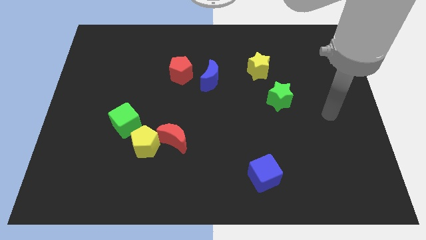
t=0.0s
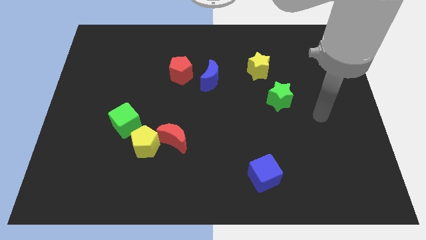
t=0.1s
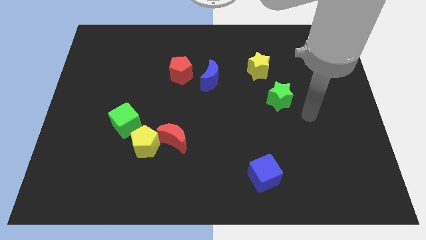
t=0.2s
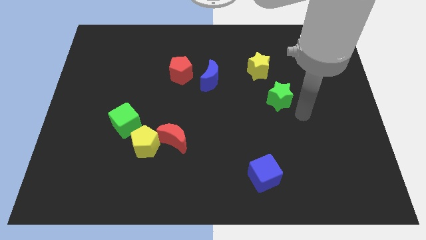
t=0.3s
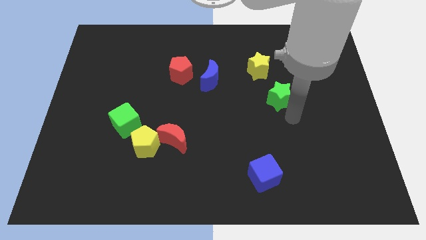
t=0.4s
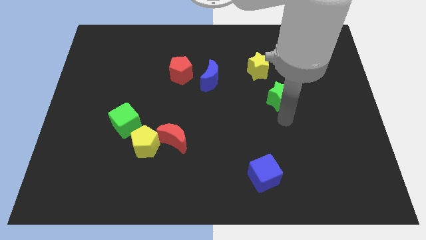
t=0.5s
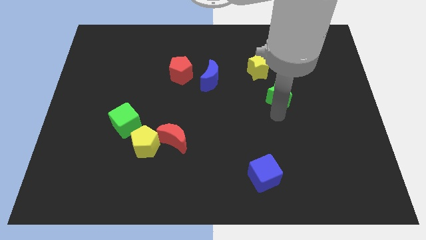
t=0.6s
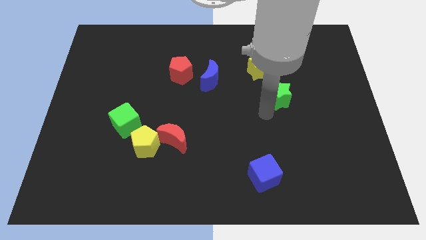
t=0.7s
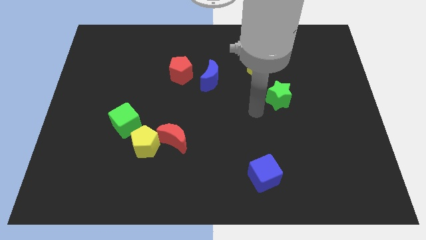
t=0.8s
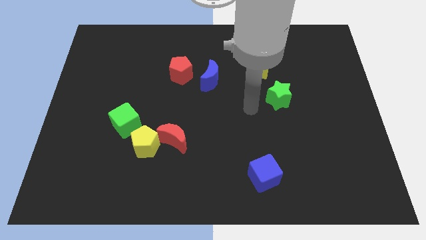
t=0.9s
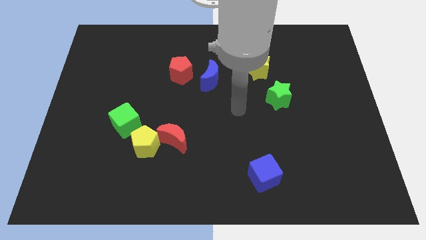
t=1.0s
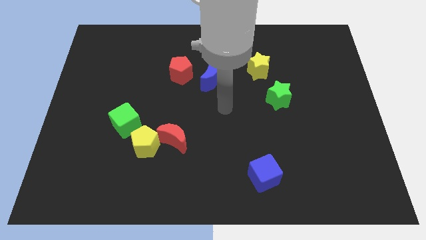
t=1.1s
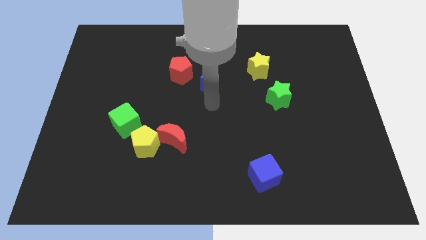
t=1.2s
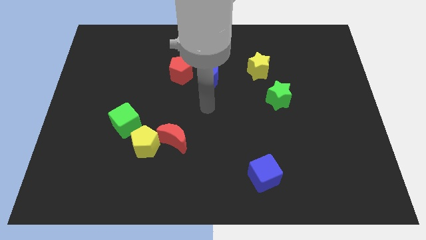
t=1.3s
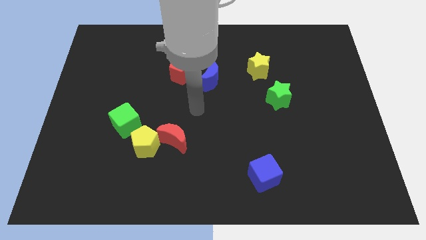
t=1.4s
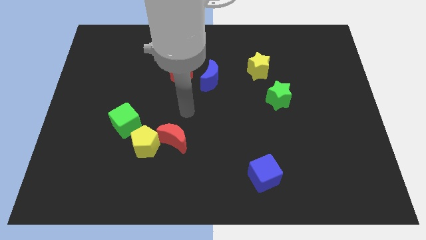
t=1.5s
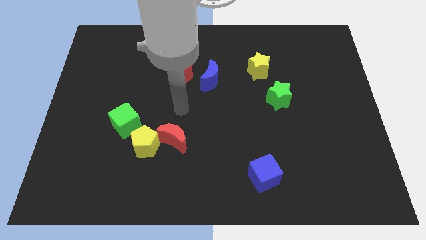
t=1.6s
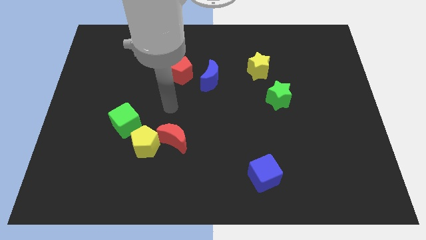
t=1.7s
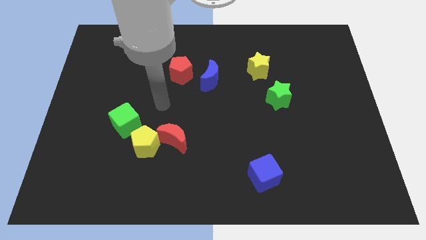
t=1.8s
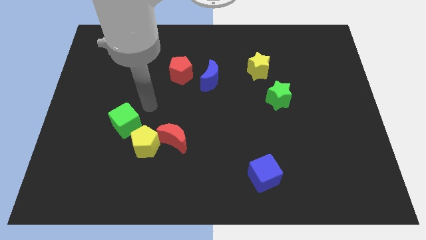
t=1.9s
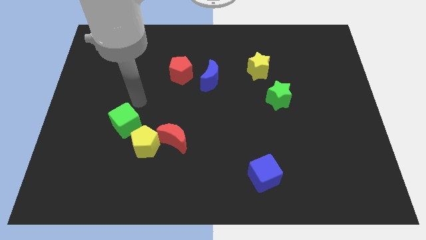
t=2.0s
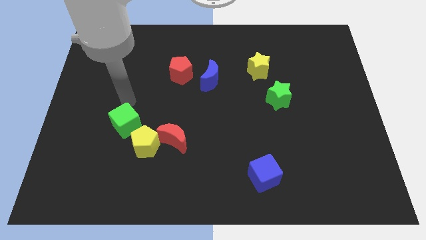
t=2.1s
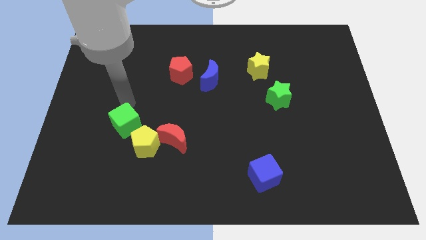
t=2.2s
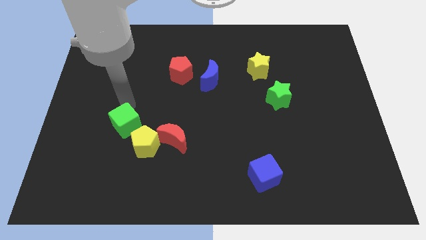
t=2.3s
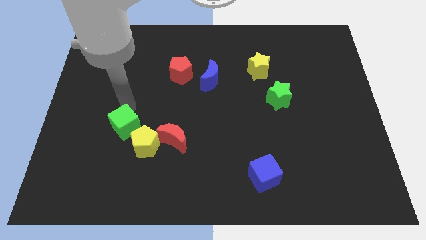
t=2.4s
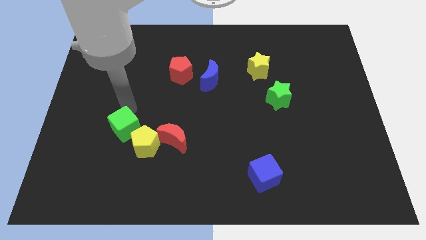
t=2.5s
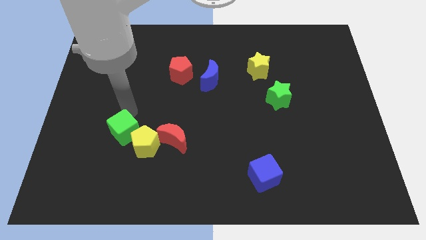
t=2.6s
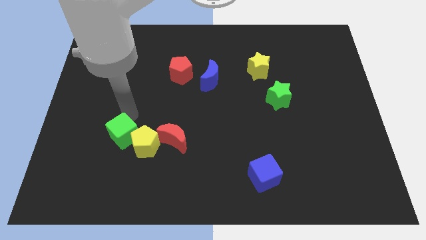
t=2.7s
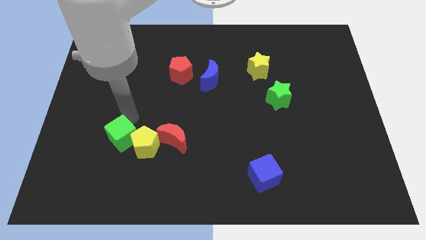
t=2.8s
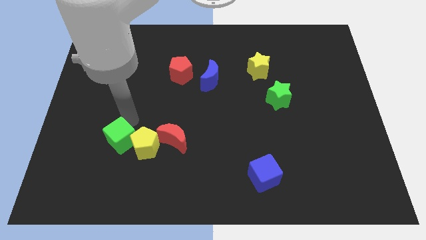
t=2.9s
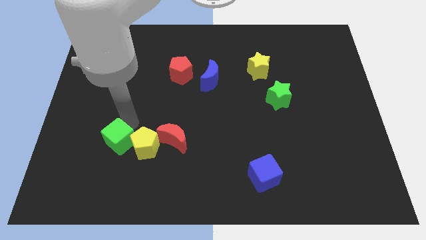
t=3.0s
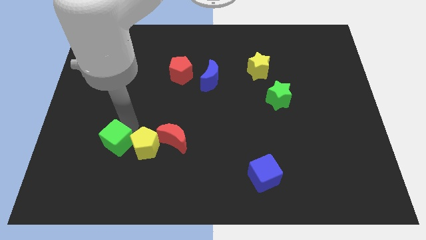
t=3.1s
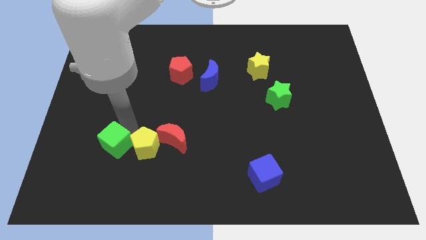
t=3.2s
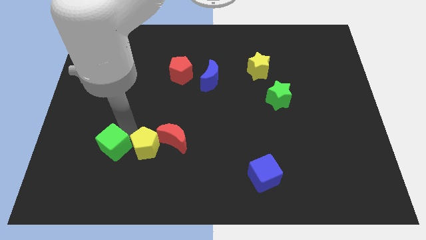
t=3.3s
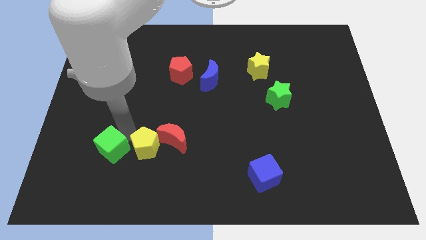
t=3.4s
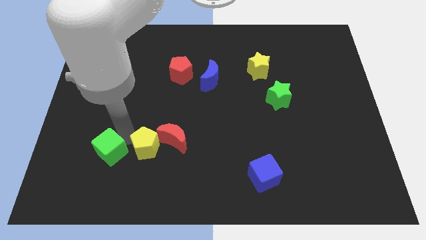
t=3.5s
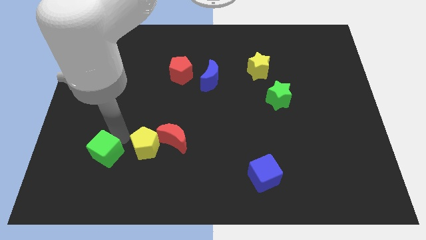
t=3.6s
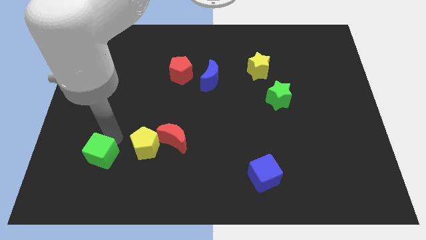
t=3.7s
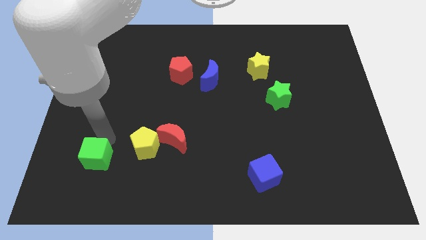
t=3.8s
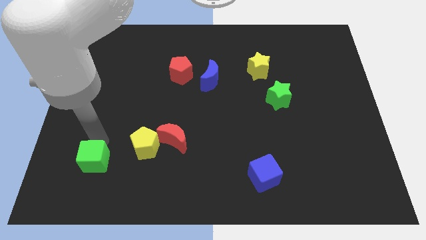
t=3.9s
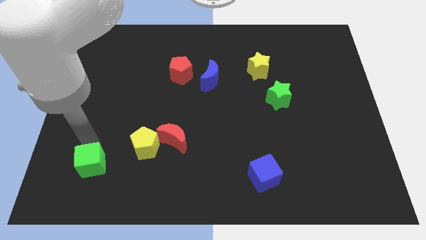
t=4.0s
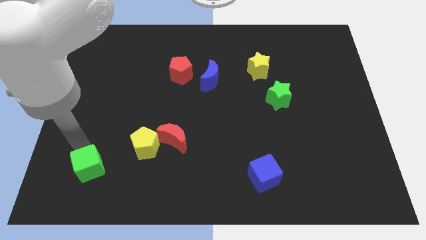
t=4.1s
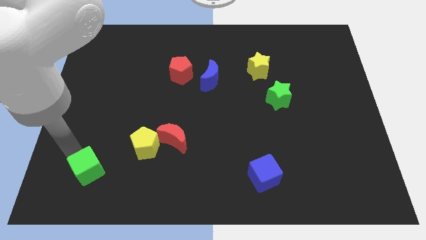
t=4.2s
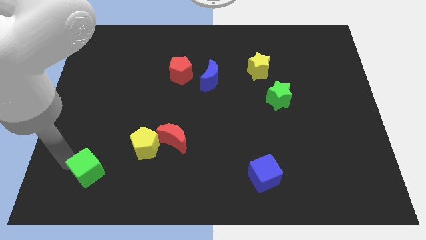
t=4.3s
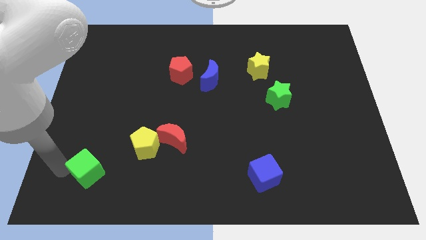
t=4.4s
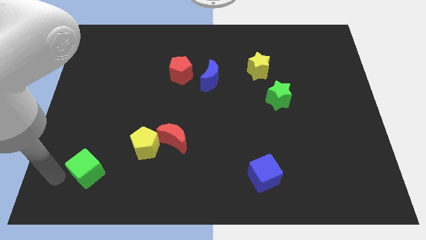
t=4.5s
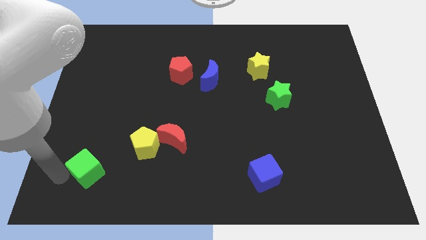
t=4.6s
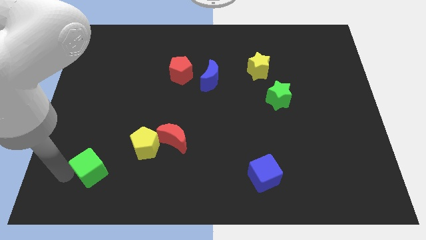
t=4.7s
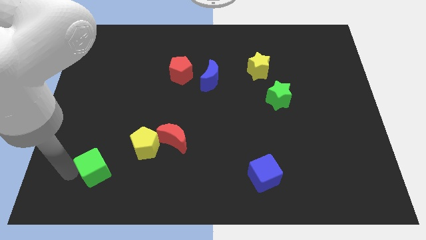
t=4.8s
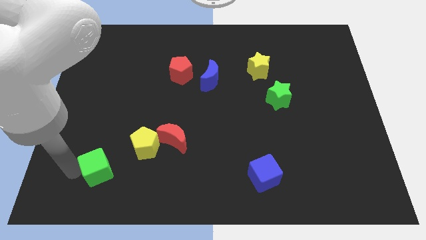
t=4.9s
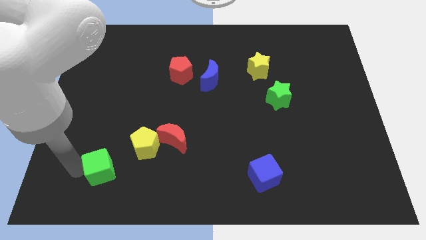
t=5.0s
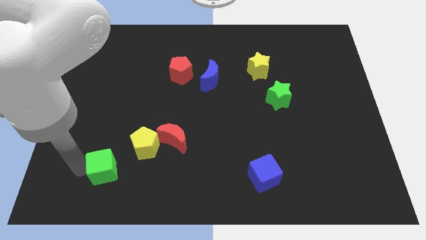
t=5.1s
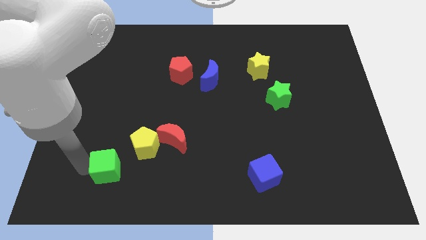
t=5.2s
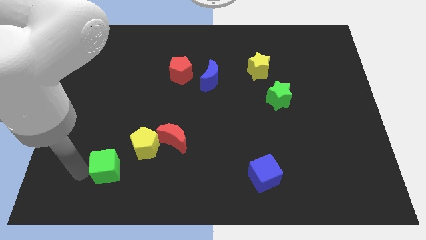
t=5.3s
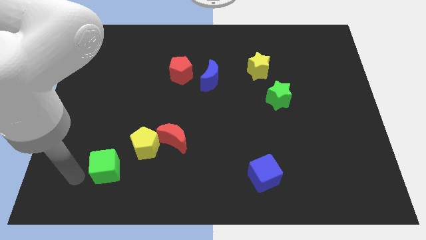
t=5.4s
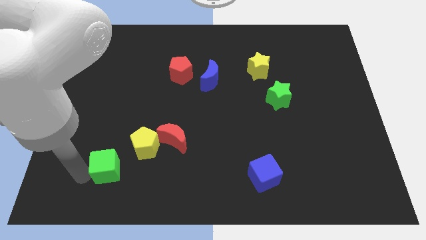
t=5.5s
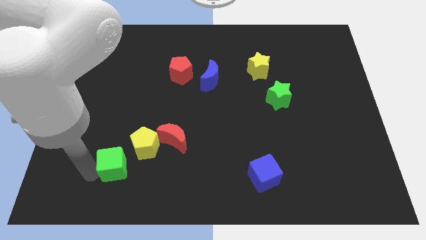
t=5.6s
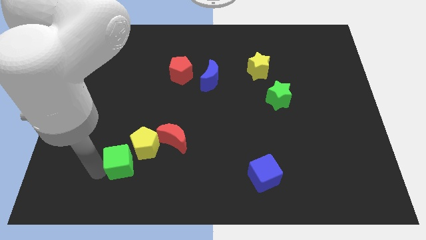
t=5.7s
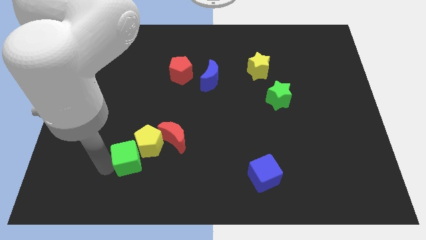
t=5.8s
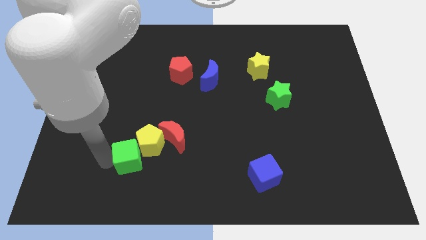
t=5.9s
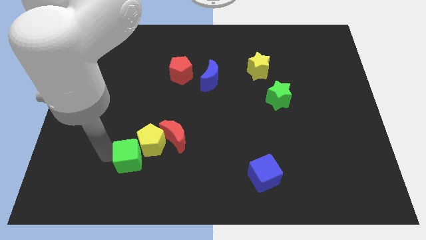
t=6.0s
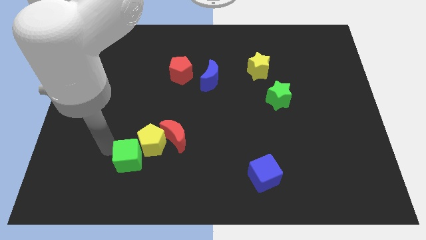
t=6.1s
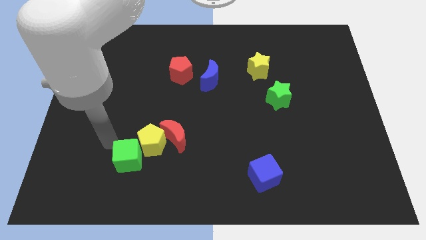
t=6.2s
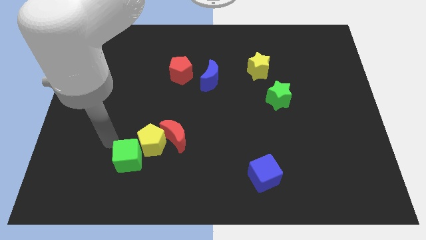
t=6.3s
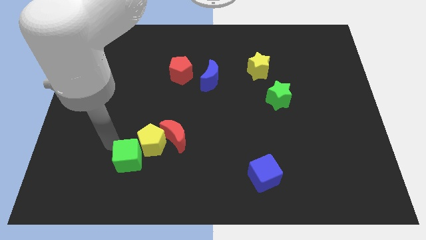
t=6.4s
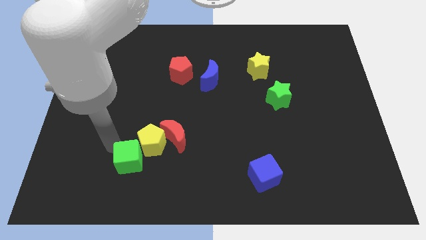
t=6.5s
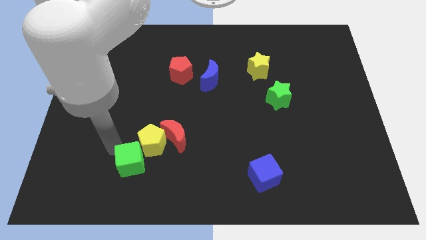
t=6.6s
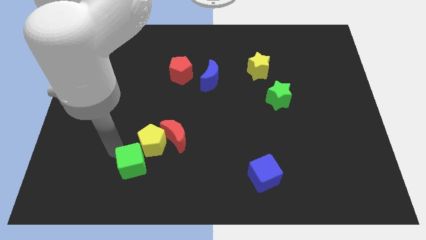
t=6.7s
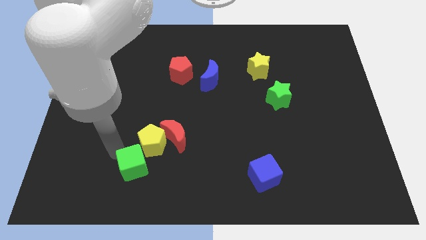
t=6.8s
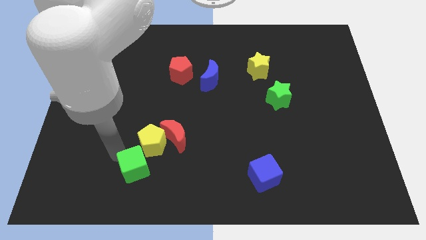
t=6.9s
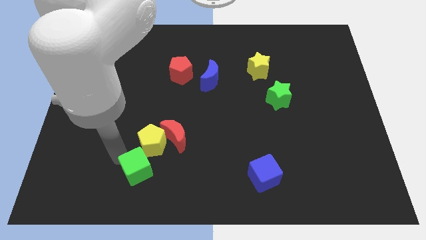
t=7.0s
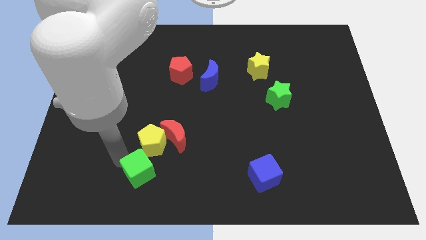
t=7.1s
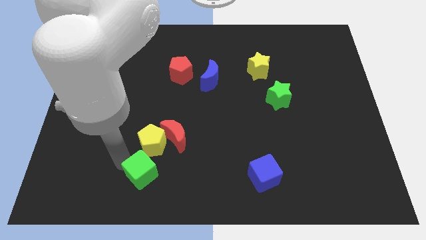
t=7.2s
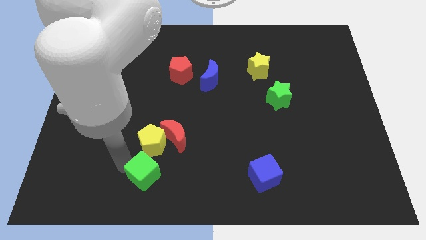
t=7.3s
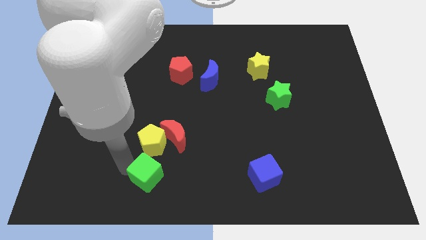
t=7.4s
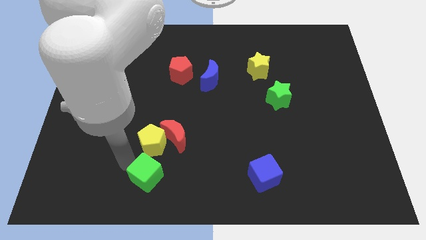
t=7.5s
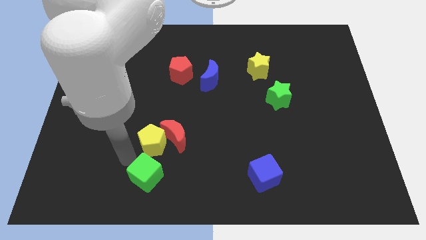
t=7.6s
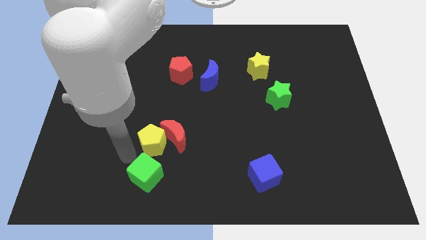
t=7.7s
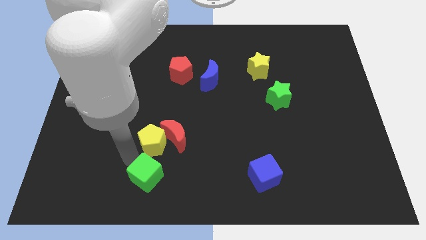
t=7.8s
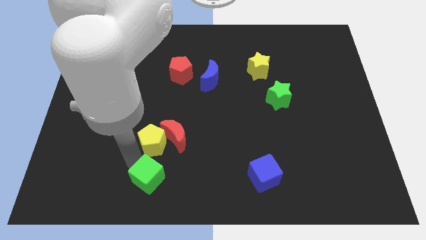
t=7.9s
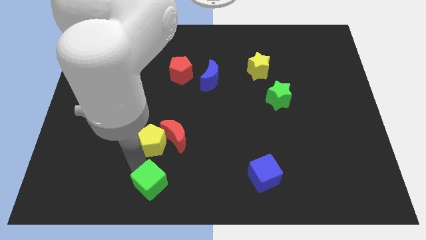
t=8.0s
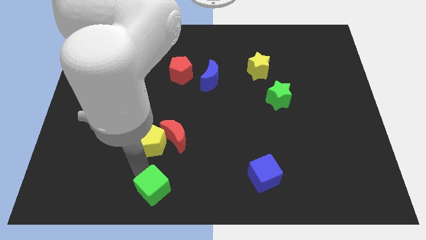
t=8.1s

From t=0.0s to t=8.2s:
move the green cube to the bottom side
